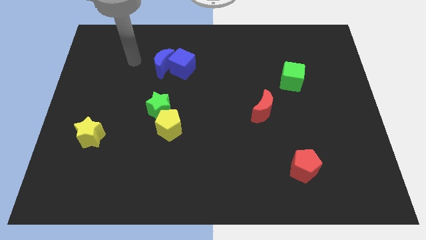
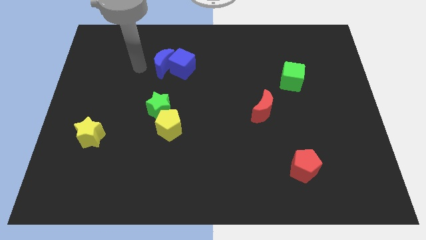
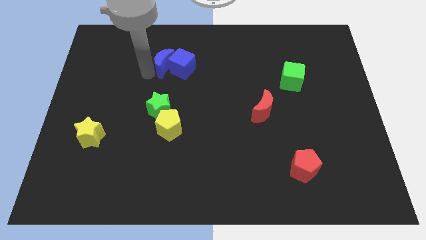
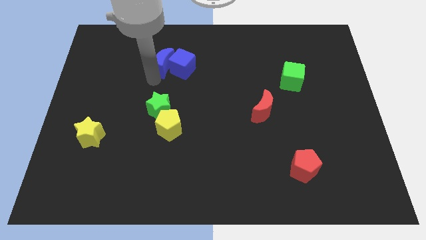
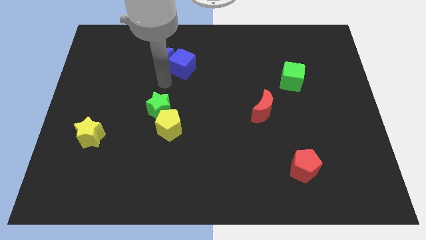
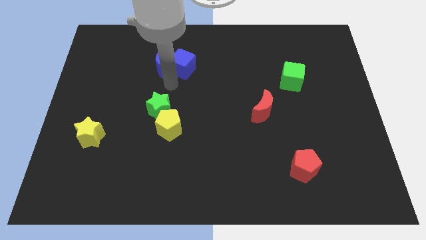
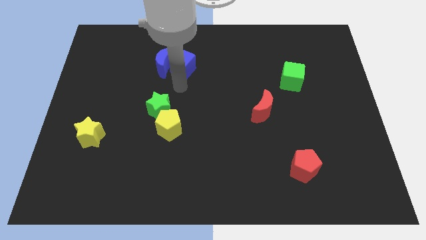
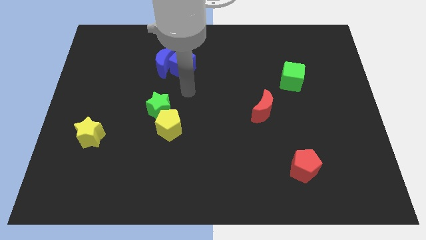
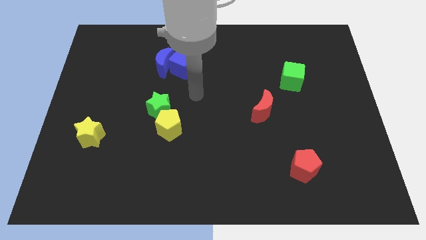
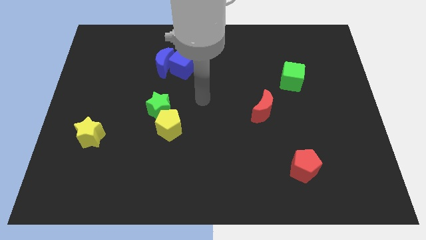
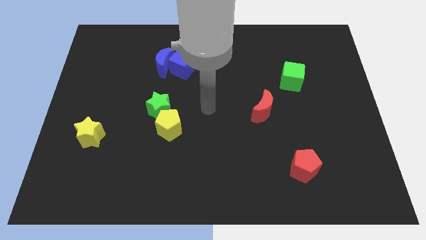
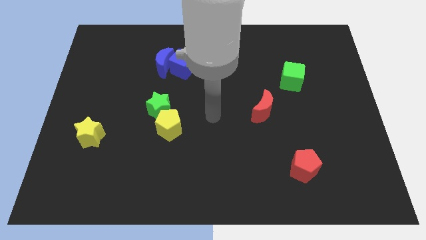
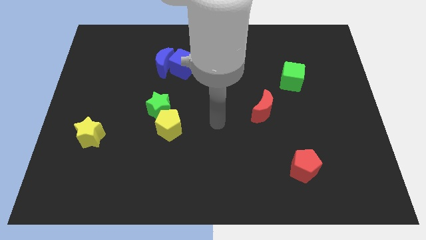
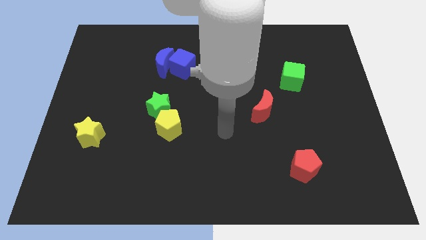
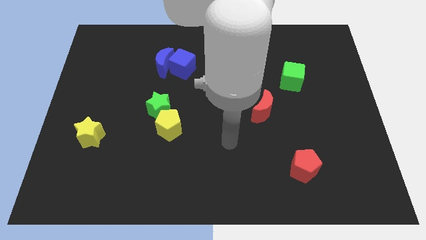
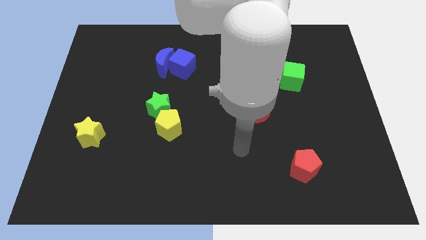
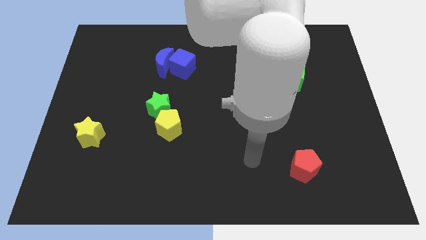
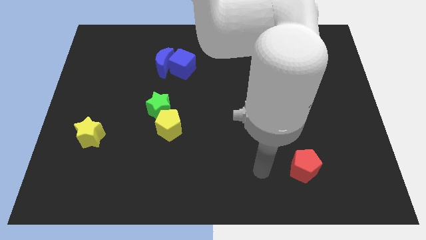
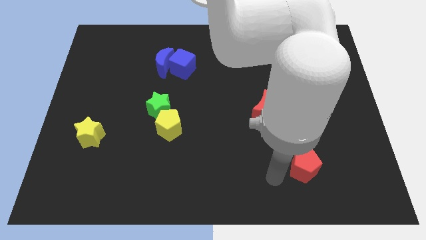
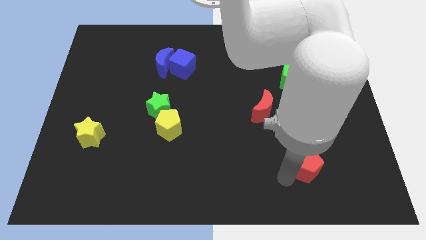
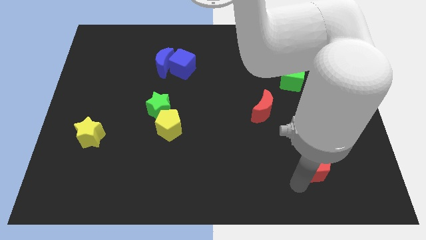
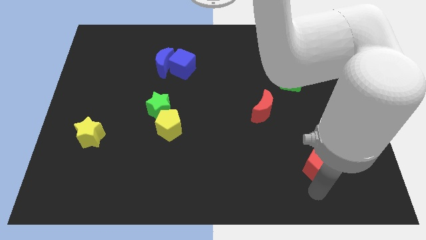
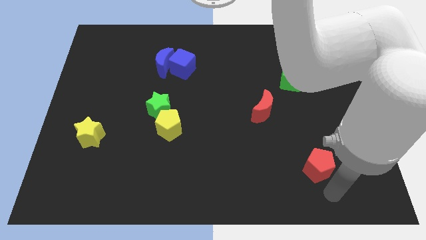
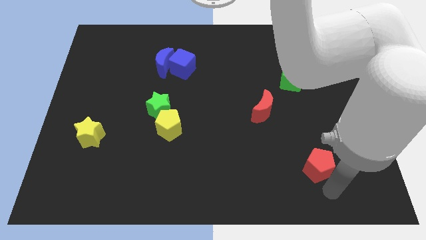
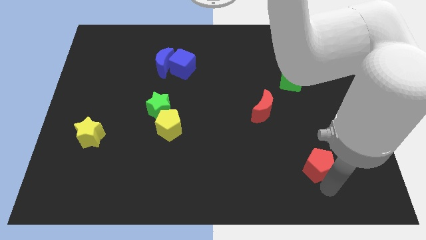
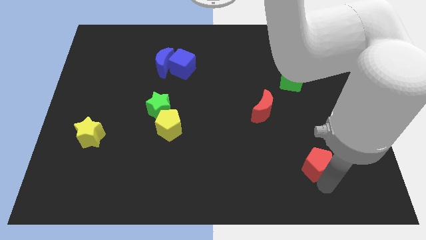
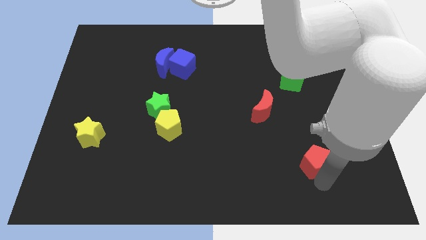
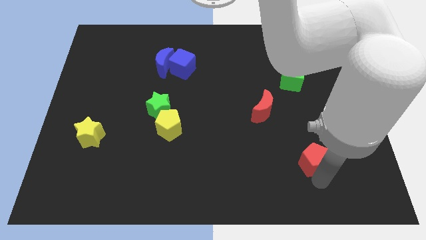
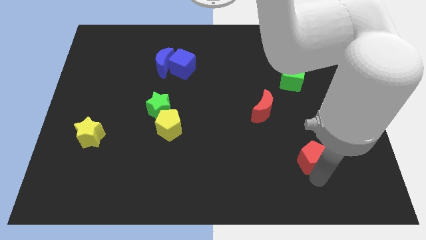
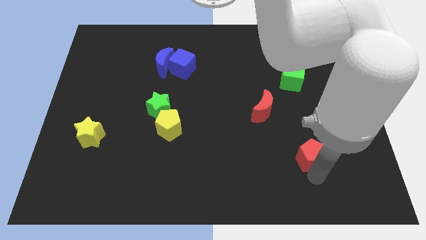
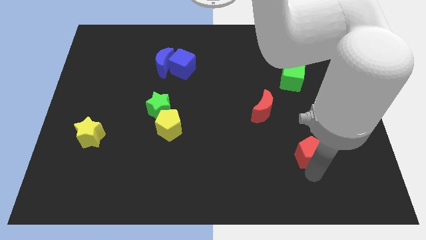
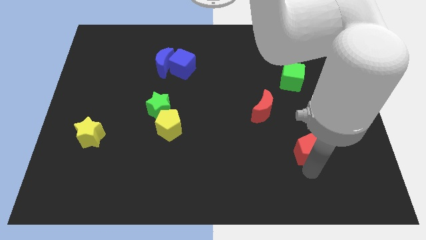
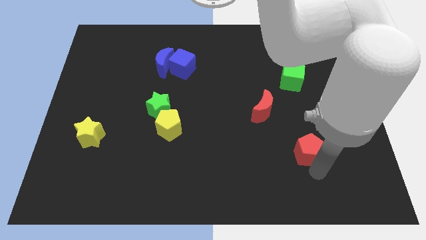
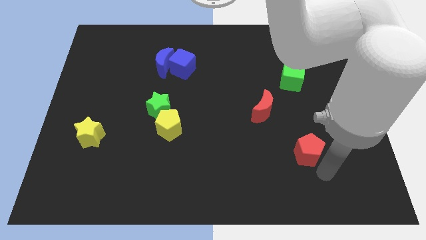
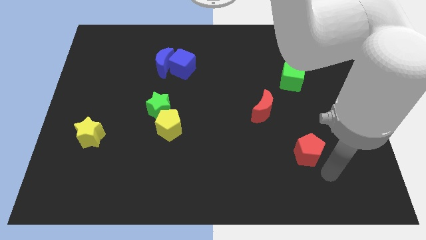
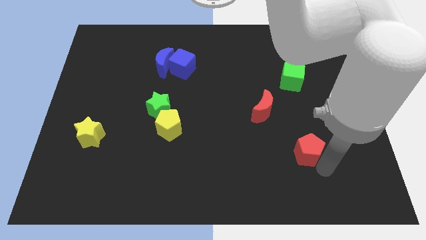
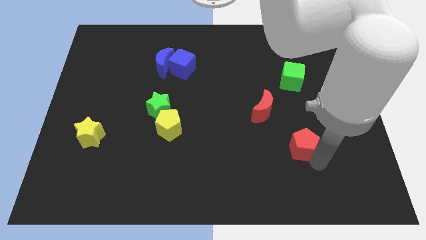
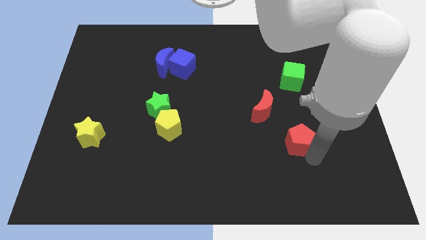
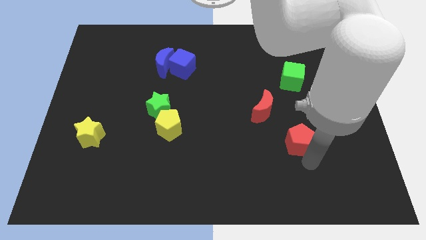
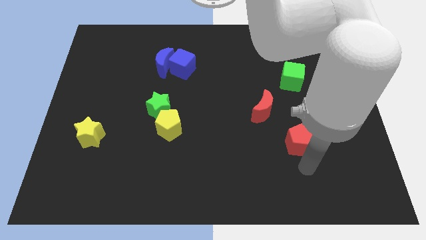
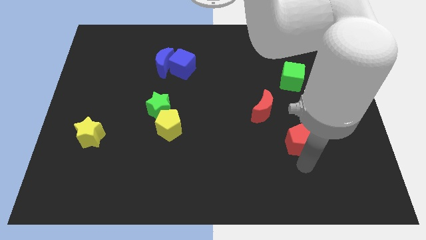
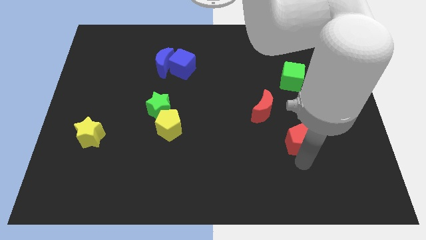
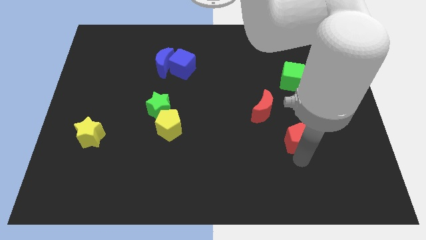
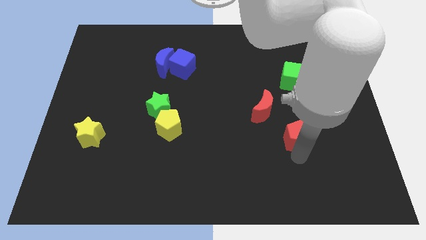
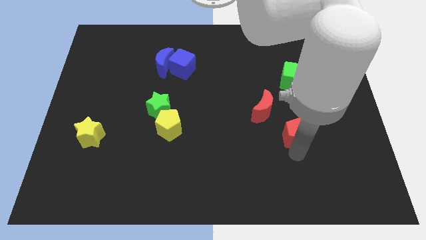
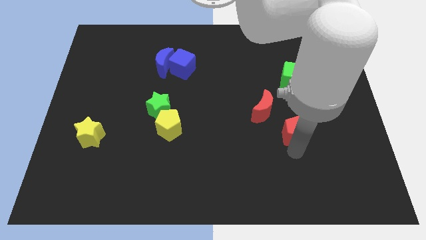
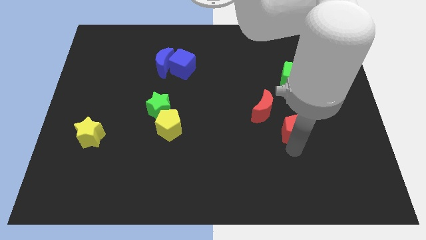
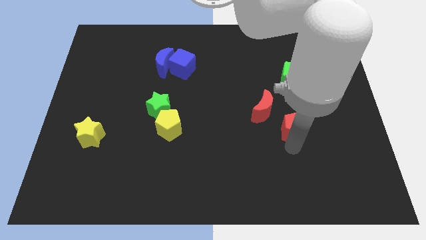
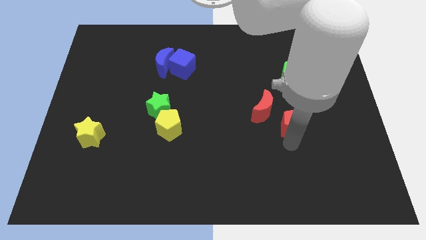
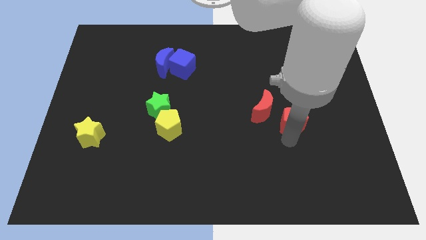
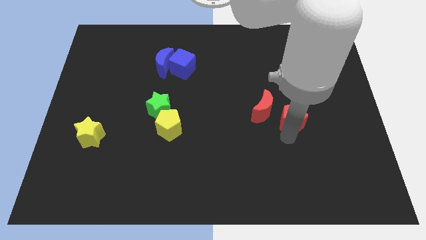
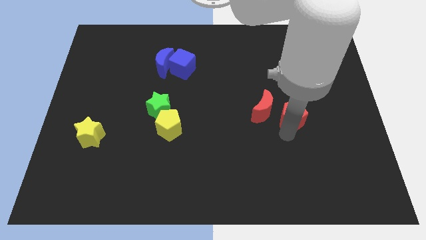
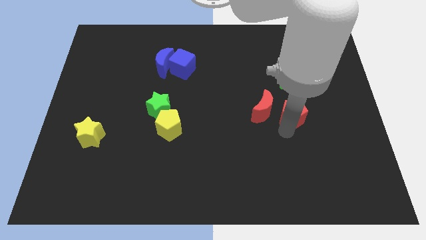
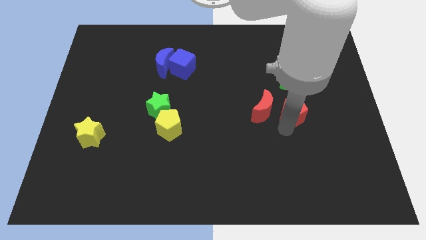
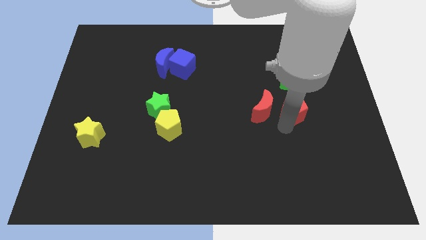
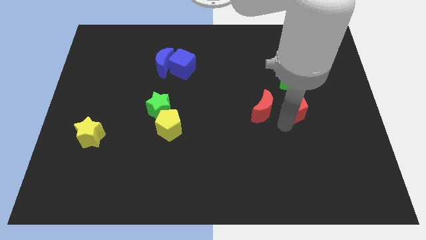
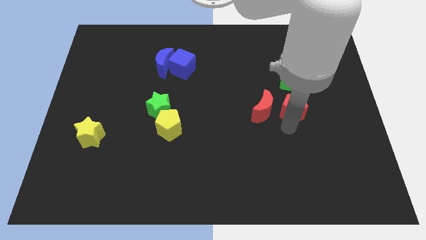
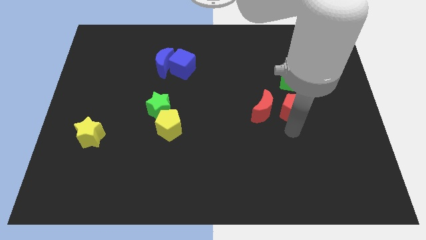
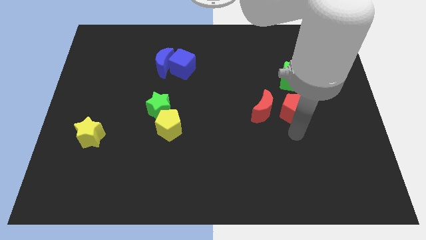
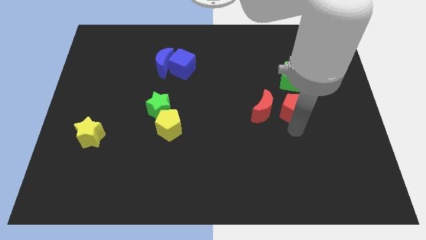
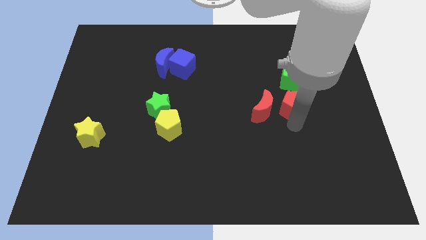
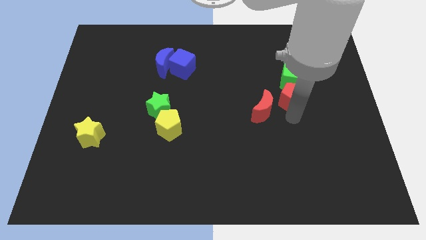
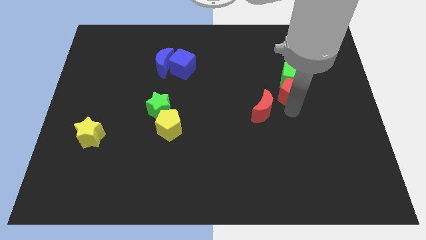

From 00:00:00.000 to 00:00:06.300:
move the red pentagon to the green cube

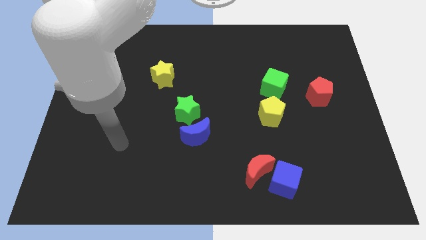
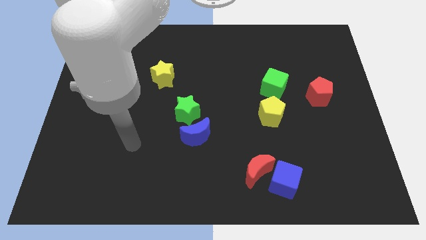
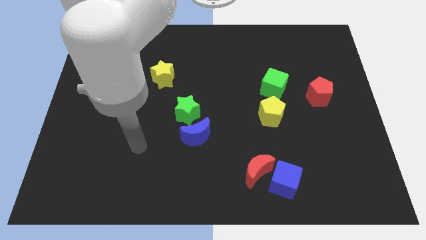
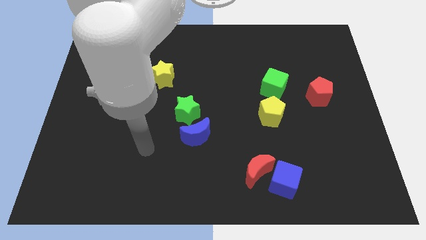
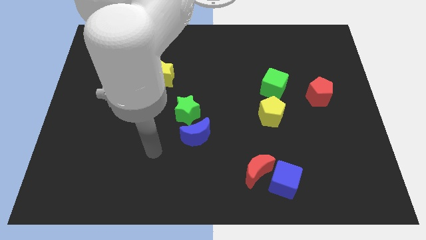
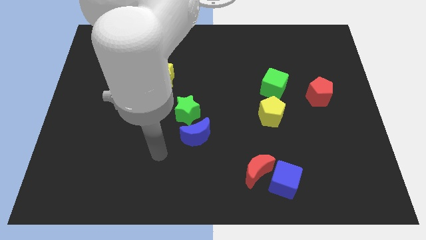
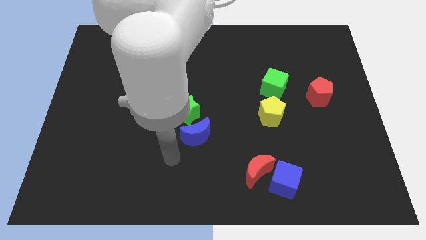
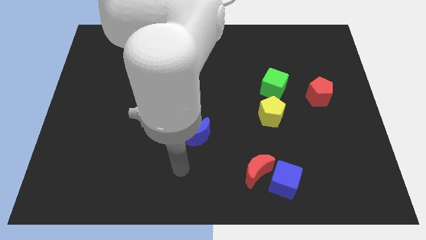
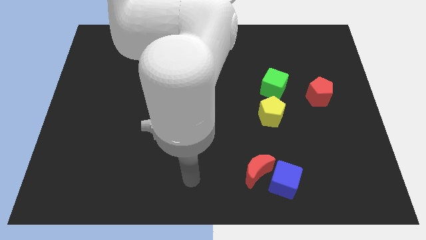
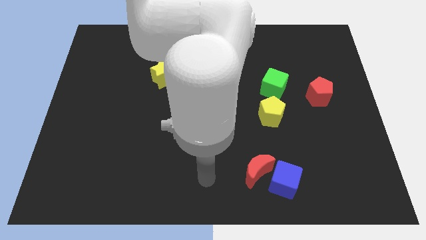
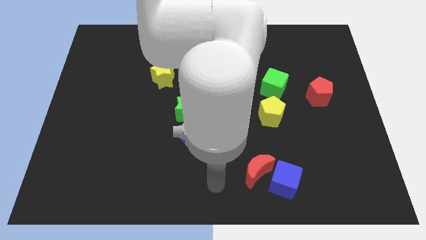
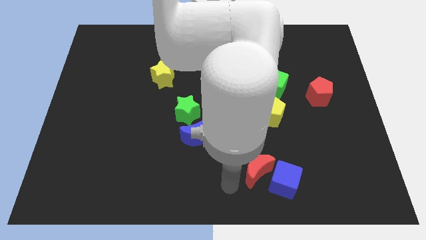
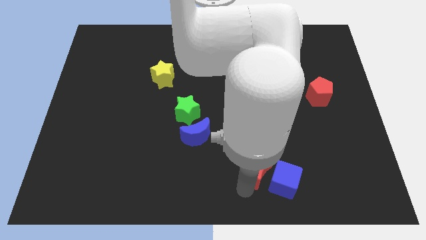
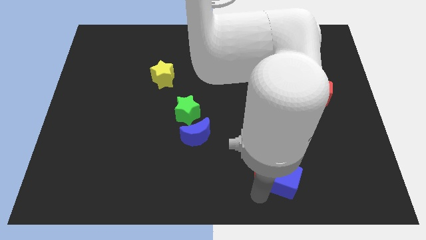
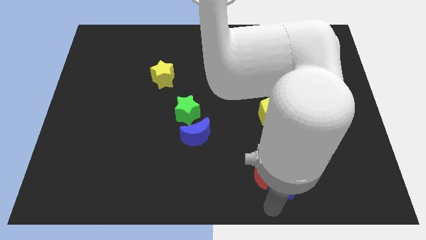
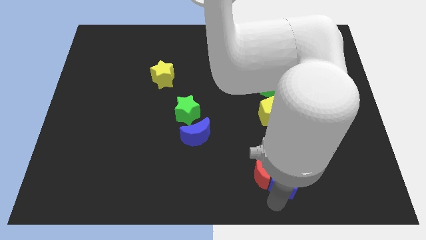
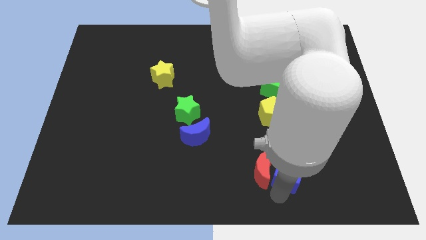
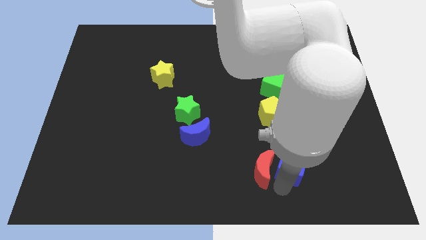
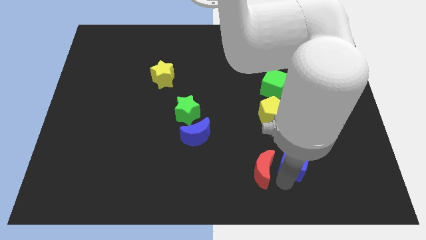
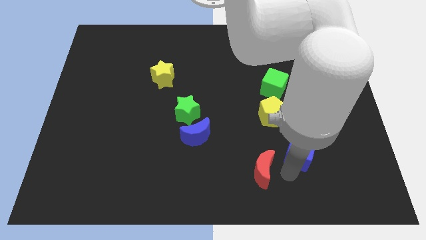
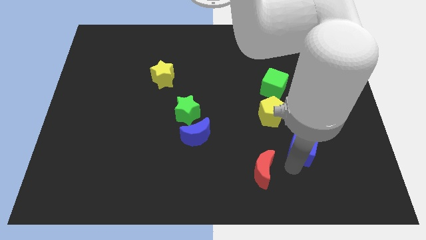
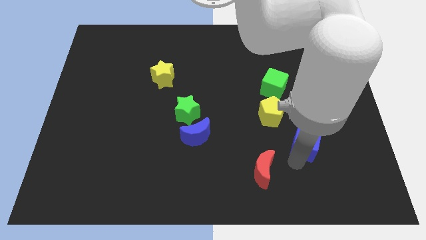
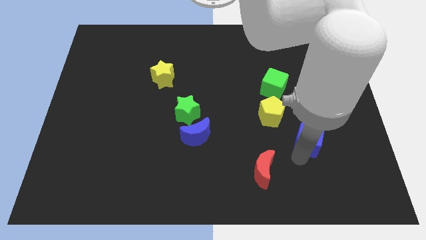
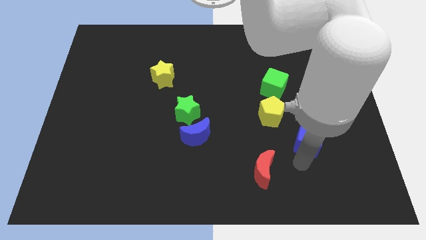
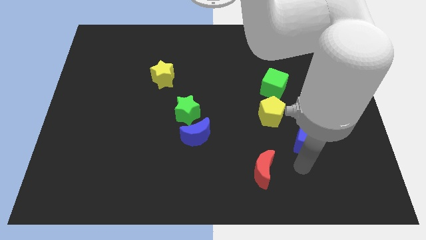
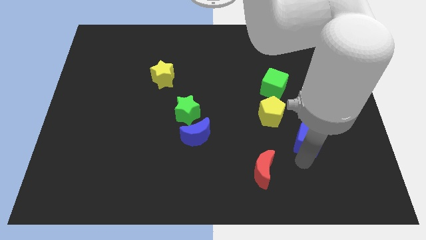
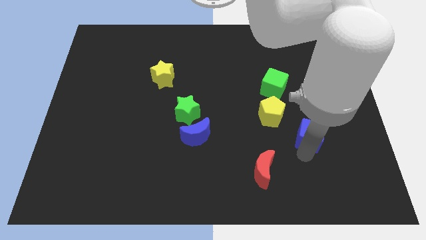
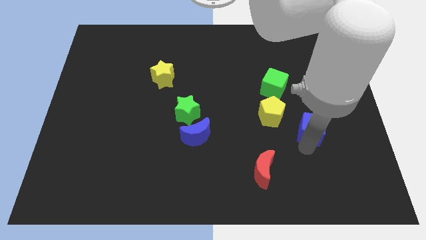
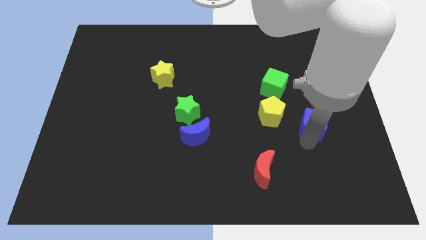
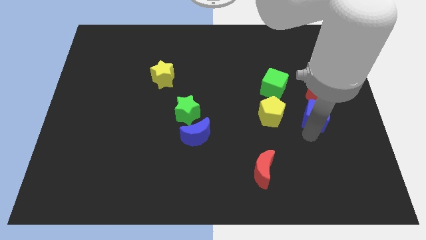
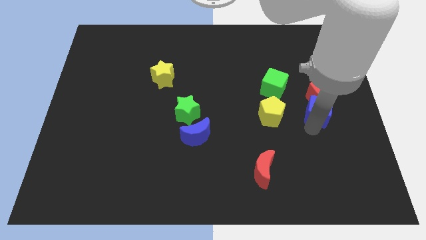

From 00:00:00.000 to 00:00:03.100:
put the blue cube next to the red pentagon
